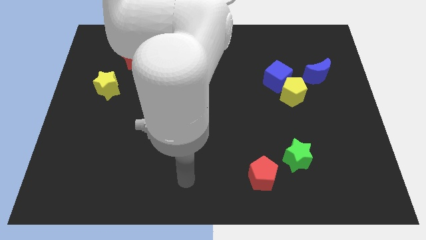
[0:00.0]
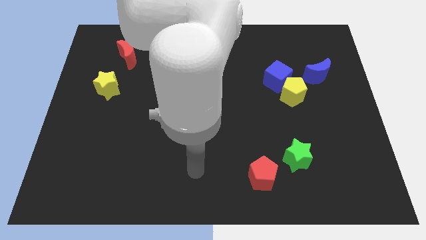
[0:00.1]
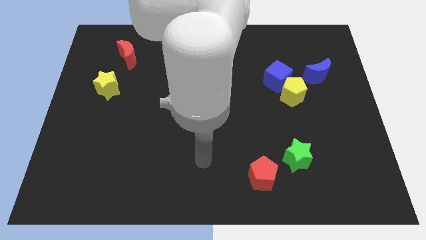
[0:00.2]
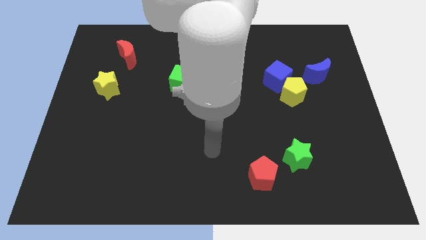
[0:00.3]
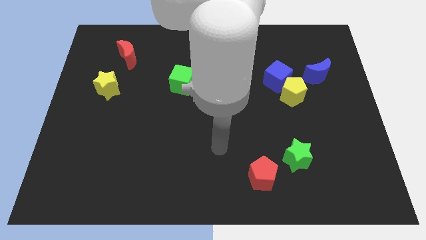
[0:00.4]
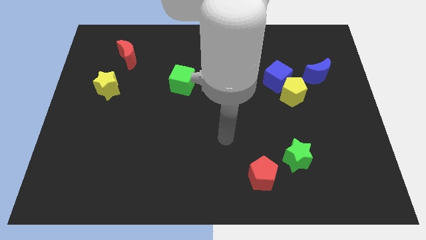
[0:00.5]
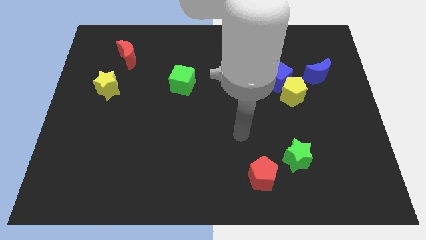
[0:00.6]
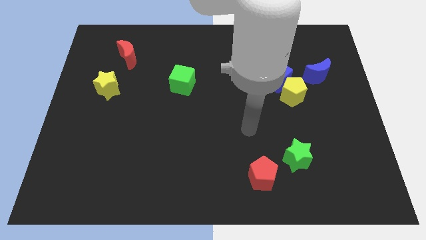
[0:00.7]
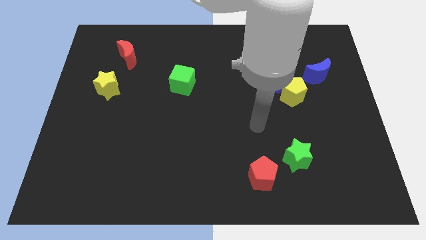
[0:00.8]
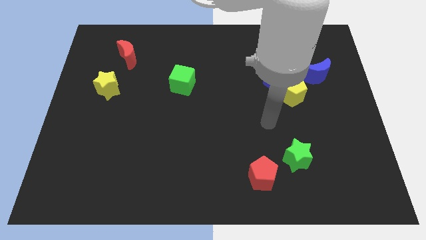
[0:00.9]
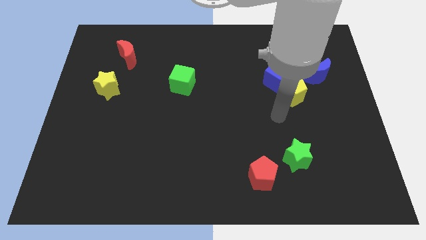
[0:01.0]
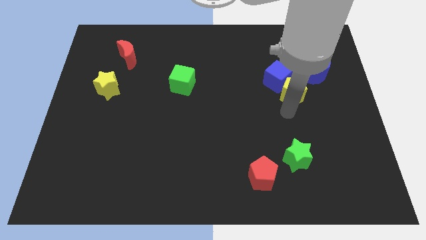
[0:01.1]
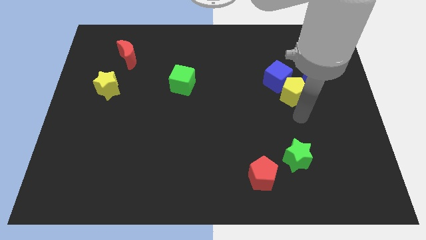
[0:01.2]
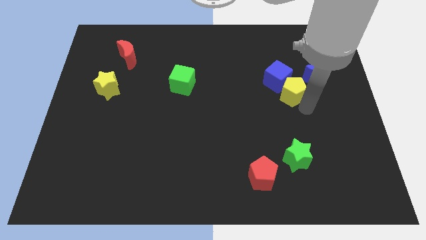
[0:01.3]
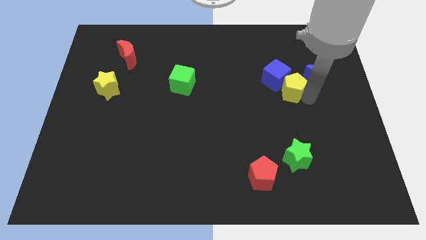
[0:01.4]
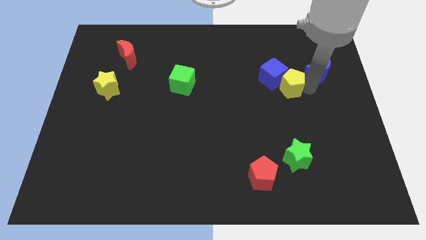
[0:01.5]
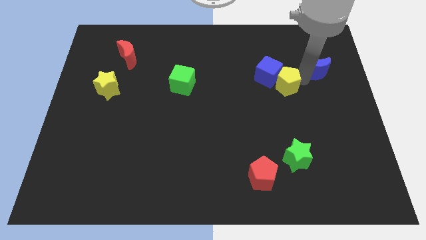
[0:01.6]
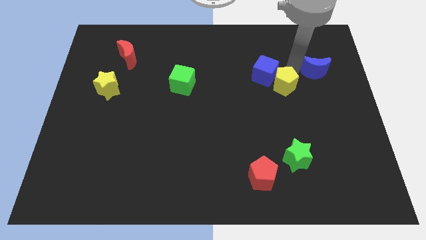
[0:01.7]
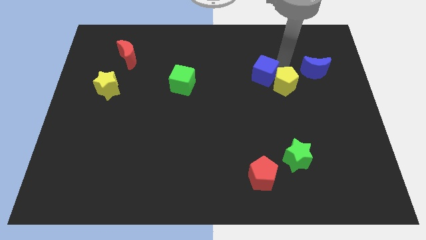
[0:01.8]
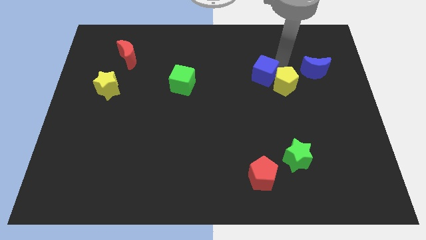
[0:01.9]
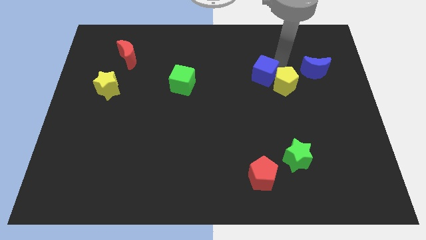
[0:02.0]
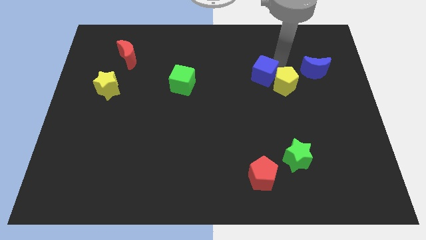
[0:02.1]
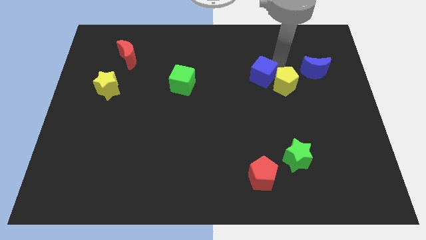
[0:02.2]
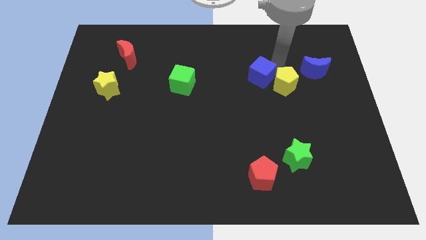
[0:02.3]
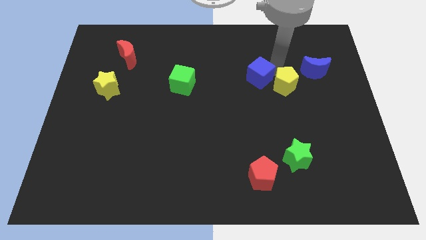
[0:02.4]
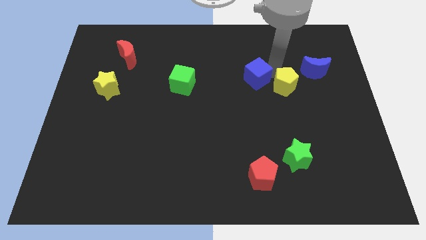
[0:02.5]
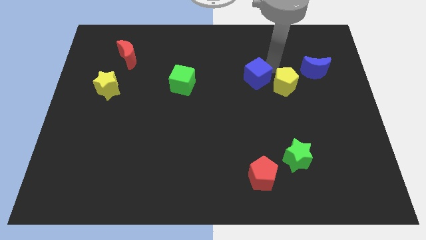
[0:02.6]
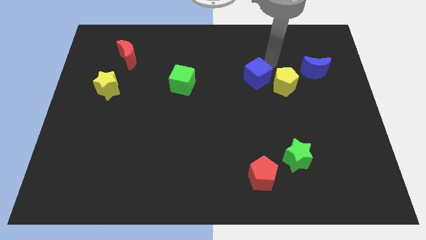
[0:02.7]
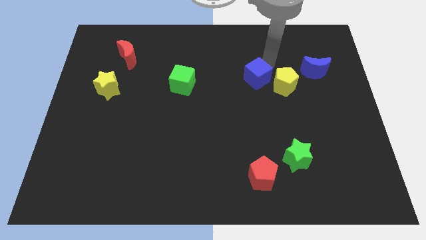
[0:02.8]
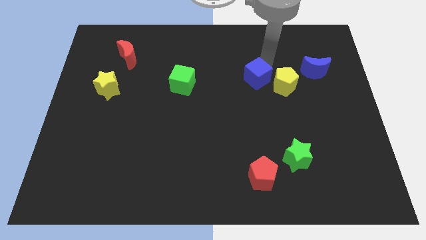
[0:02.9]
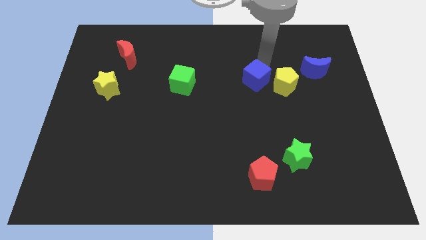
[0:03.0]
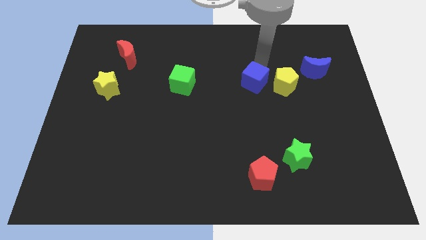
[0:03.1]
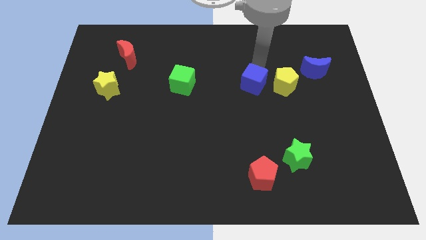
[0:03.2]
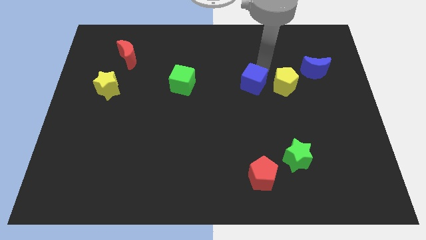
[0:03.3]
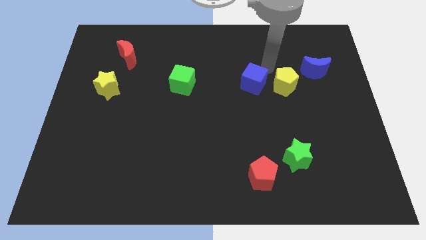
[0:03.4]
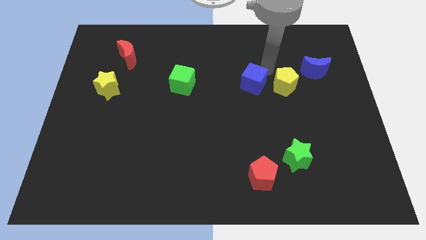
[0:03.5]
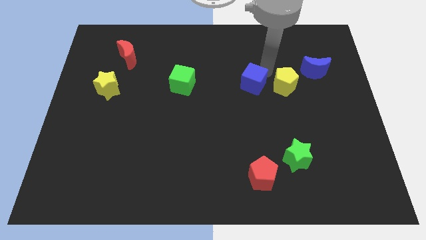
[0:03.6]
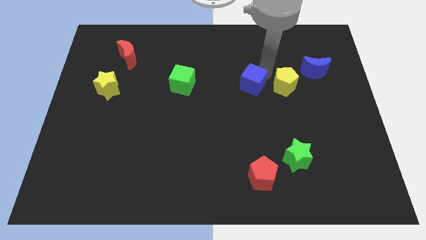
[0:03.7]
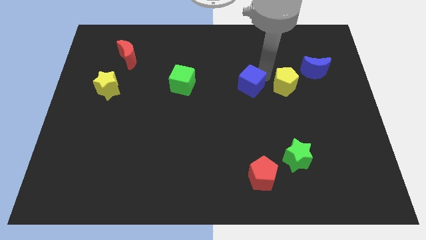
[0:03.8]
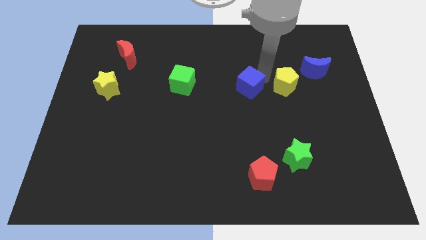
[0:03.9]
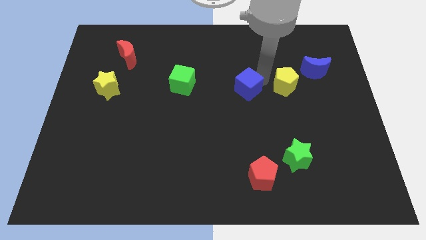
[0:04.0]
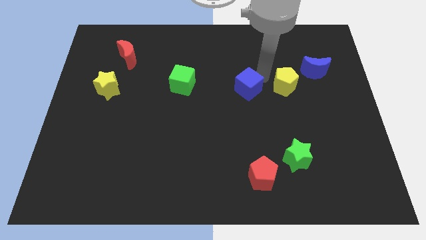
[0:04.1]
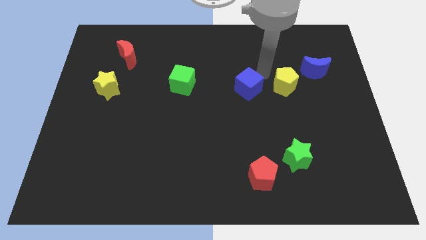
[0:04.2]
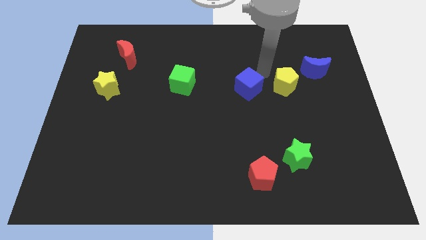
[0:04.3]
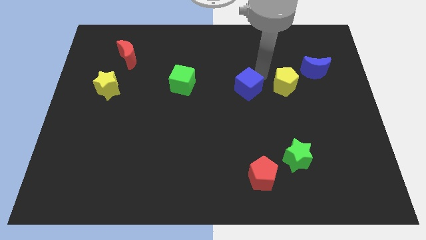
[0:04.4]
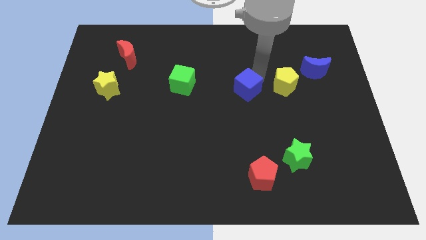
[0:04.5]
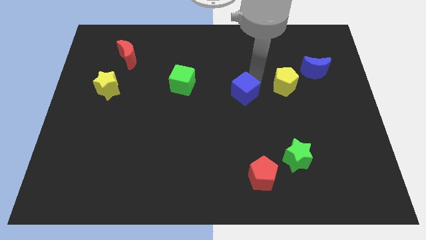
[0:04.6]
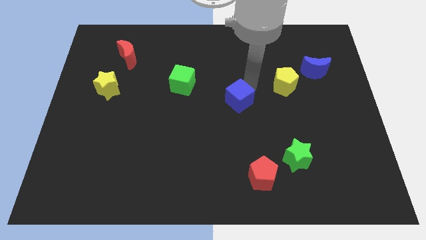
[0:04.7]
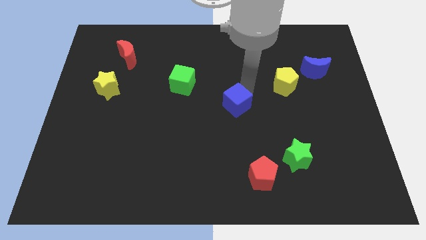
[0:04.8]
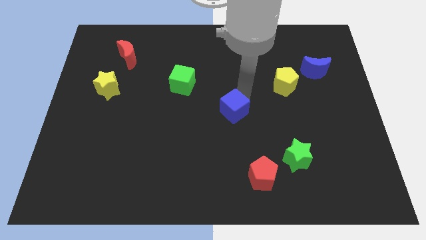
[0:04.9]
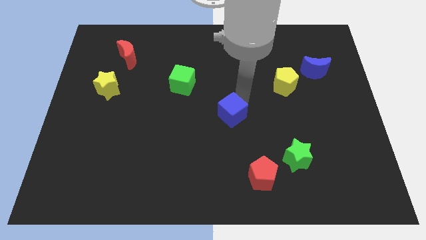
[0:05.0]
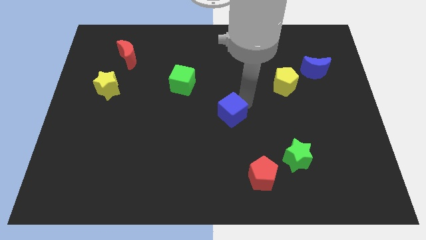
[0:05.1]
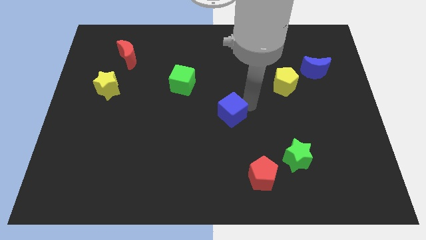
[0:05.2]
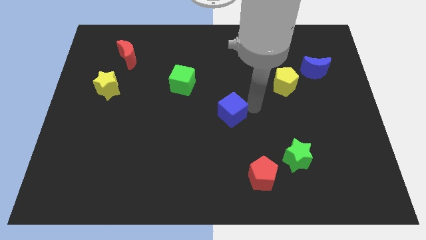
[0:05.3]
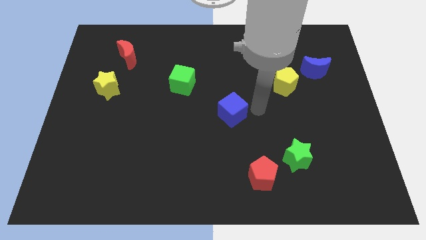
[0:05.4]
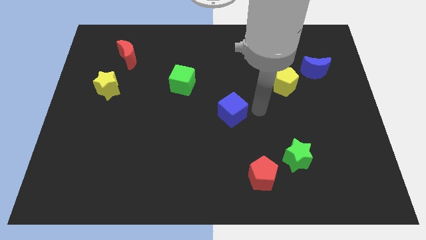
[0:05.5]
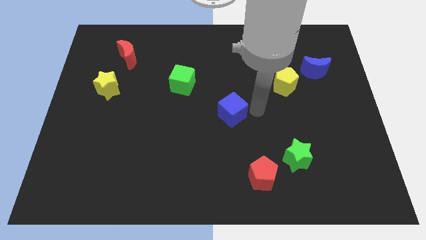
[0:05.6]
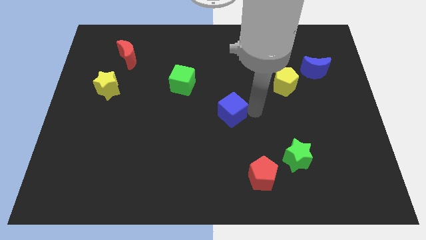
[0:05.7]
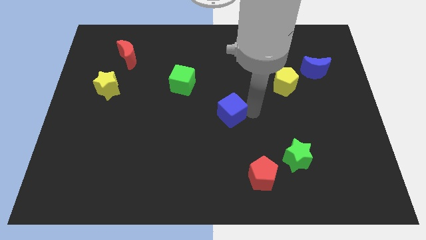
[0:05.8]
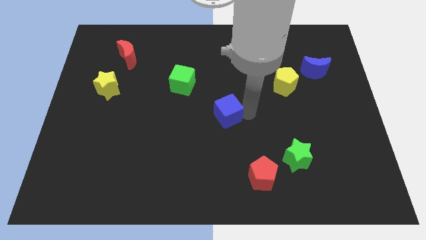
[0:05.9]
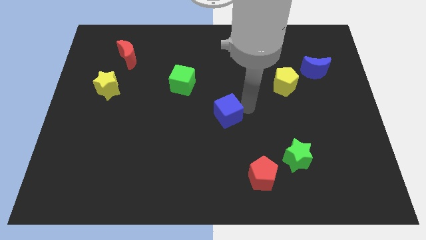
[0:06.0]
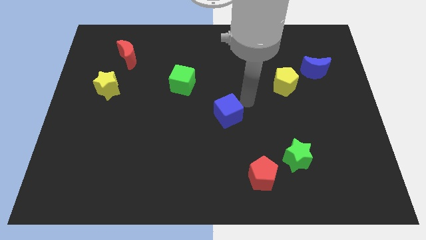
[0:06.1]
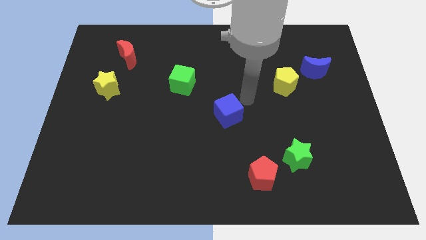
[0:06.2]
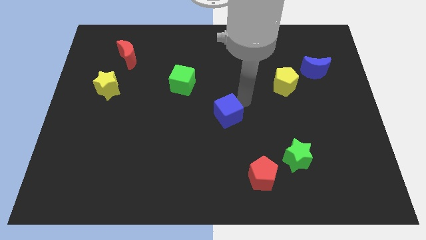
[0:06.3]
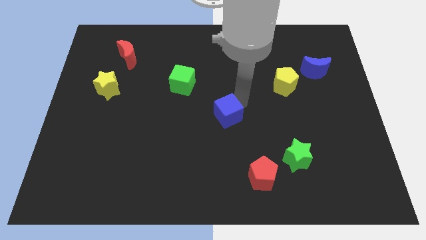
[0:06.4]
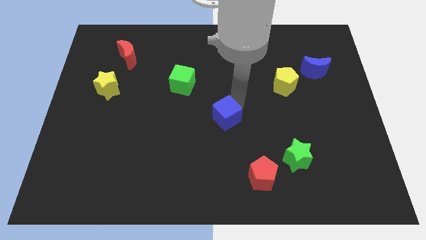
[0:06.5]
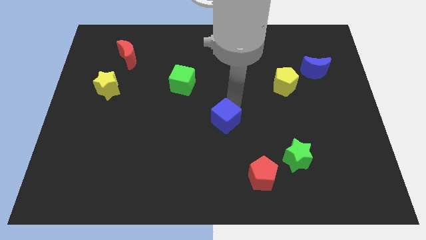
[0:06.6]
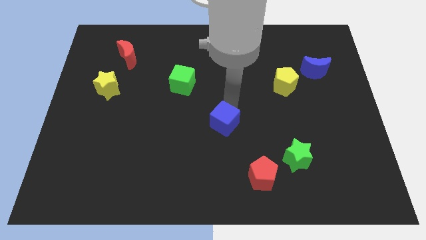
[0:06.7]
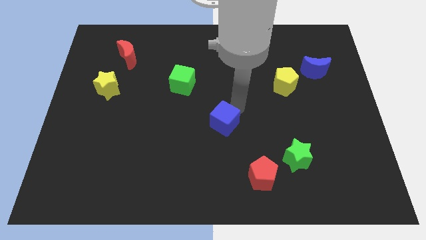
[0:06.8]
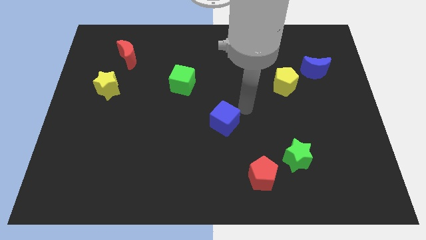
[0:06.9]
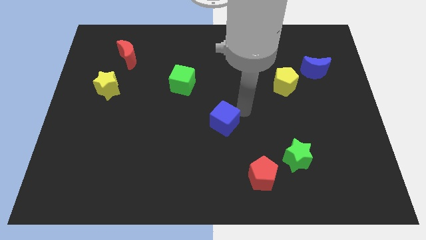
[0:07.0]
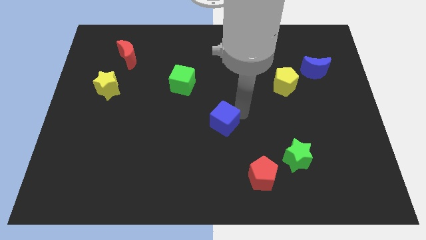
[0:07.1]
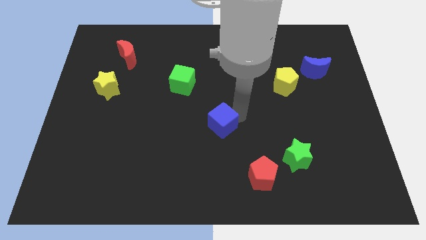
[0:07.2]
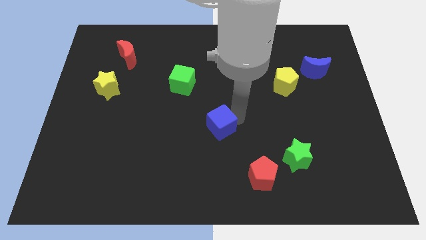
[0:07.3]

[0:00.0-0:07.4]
slide the blue cube diagonally down and to the left

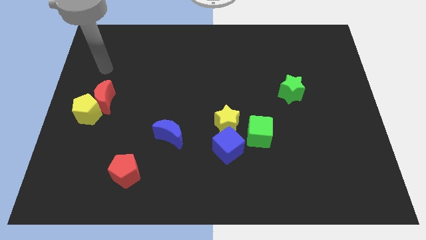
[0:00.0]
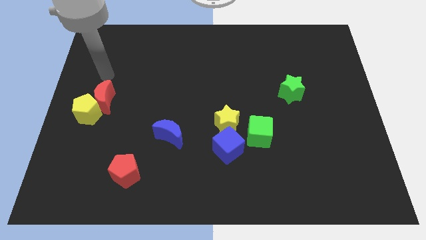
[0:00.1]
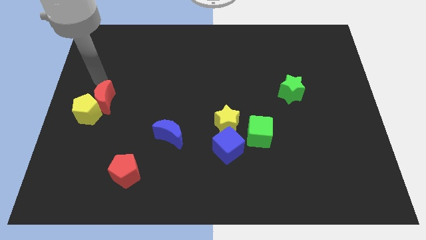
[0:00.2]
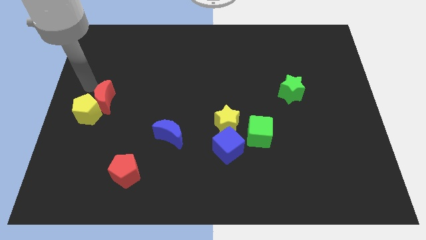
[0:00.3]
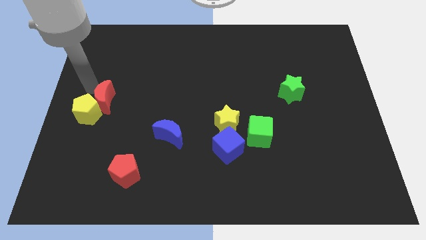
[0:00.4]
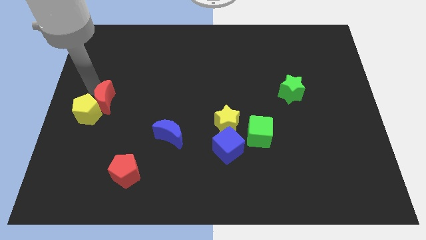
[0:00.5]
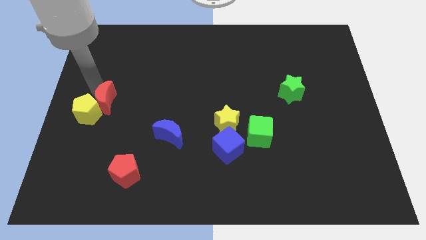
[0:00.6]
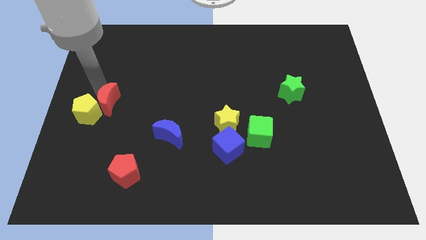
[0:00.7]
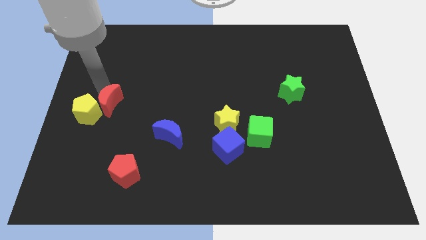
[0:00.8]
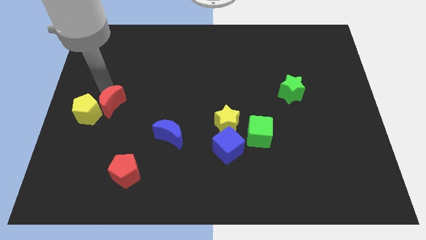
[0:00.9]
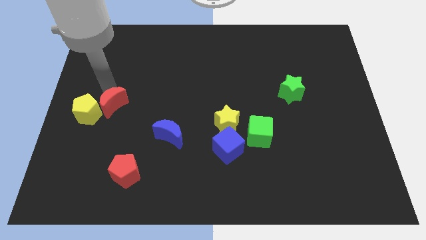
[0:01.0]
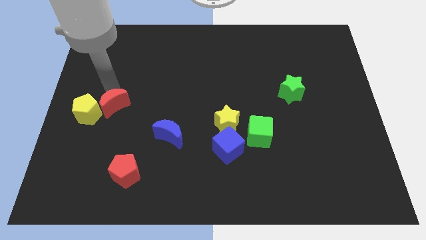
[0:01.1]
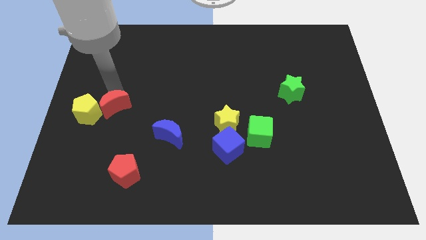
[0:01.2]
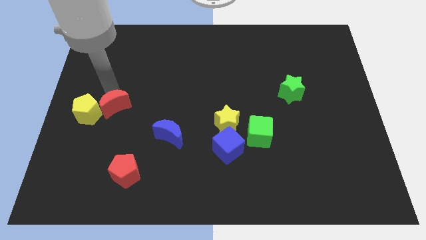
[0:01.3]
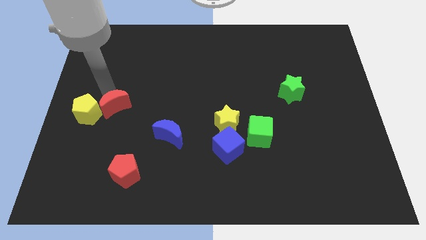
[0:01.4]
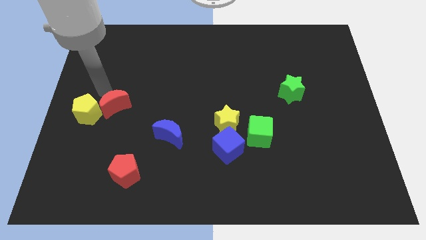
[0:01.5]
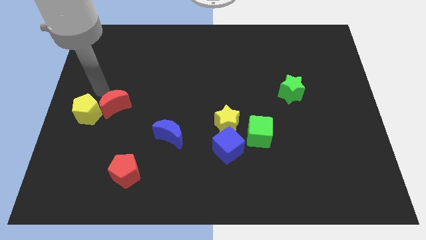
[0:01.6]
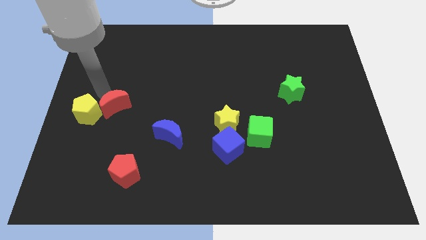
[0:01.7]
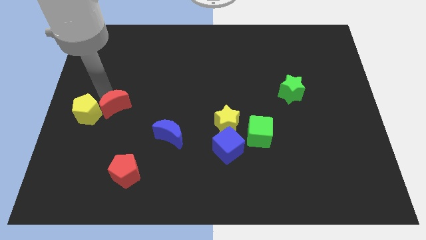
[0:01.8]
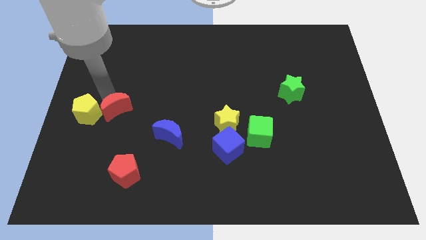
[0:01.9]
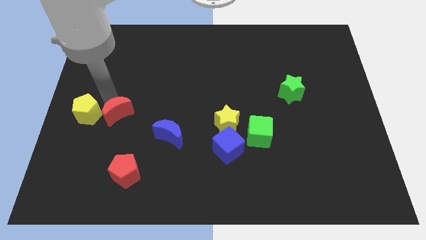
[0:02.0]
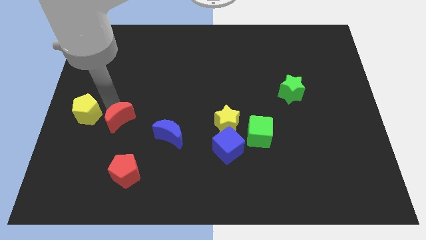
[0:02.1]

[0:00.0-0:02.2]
slide the red moon a little diagonally downwards and to the right
